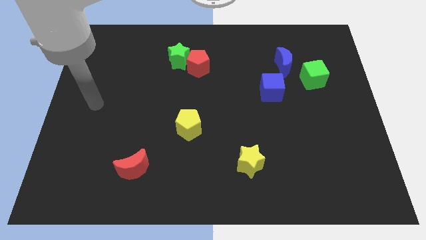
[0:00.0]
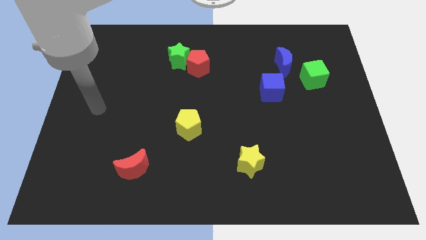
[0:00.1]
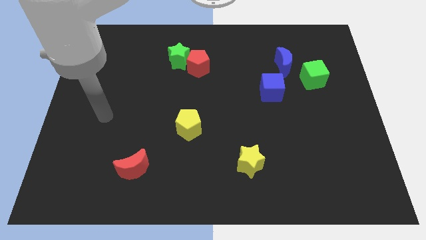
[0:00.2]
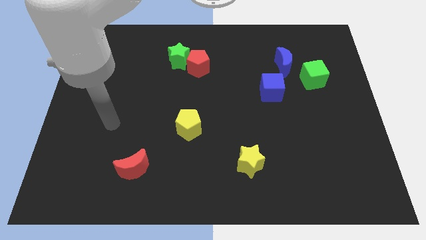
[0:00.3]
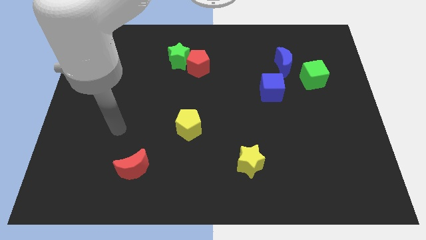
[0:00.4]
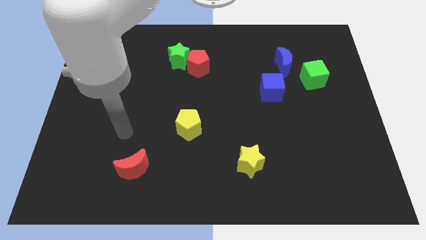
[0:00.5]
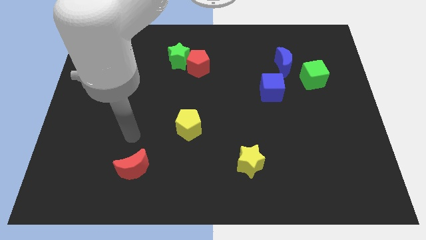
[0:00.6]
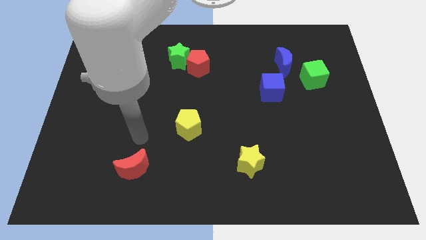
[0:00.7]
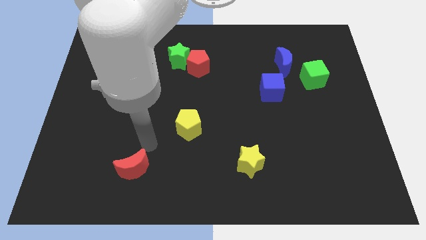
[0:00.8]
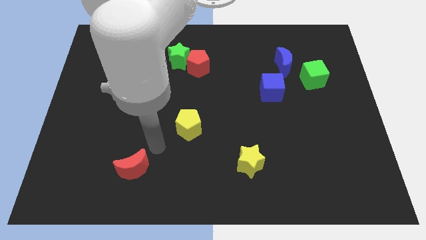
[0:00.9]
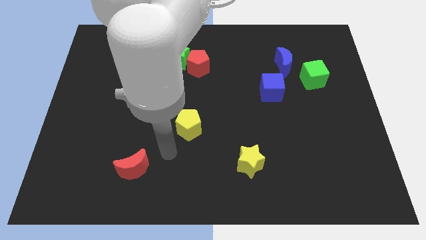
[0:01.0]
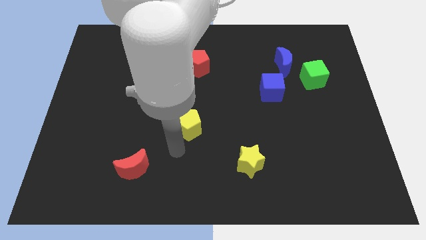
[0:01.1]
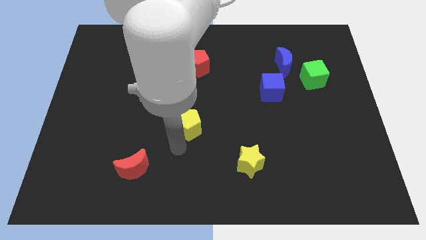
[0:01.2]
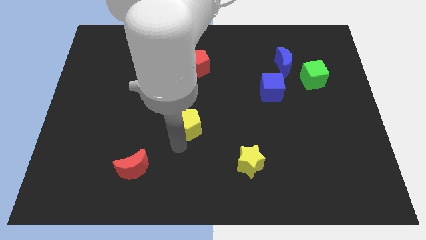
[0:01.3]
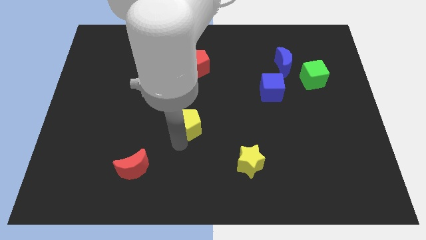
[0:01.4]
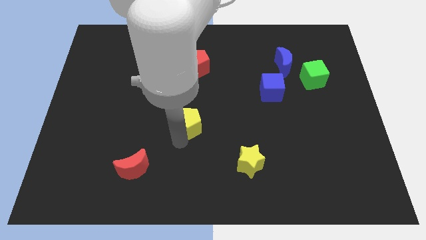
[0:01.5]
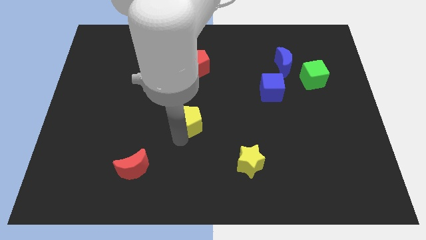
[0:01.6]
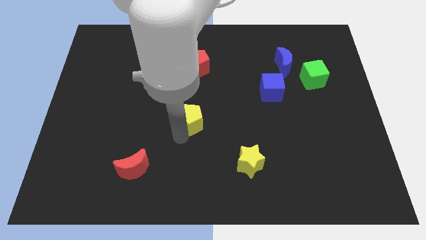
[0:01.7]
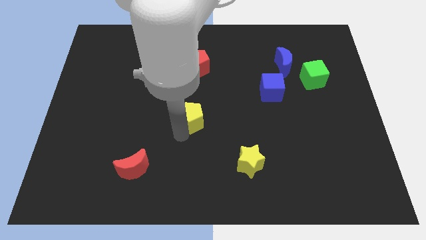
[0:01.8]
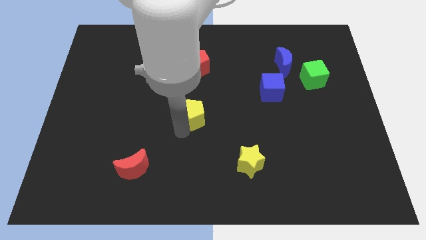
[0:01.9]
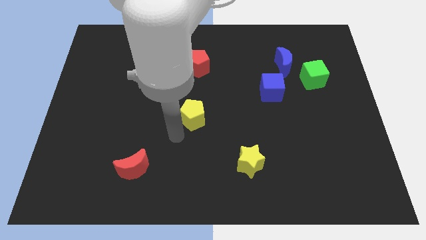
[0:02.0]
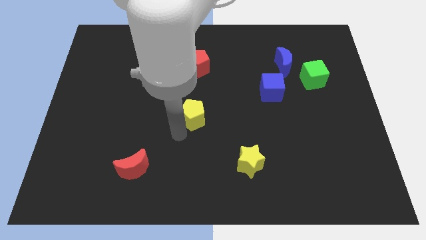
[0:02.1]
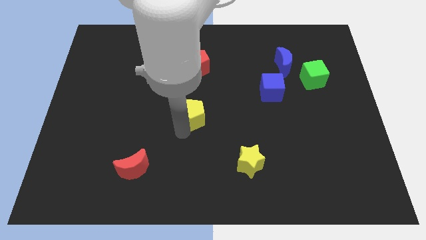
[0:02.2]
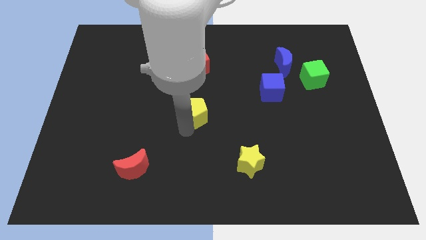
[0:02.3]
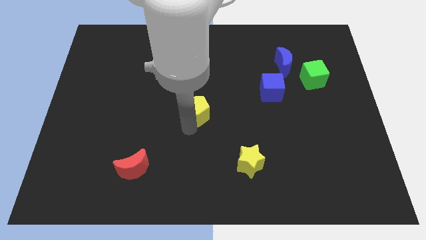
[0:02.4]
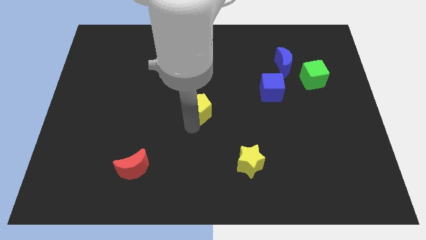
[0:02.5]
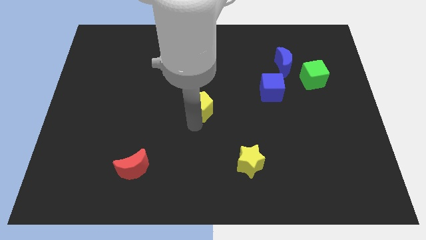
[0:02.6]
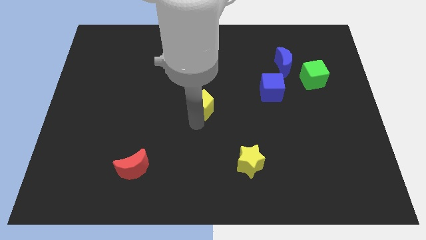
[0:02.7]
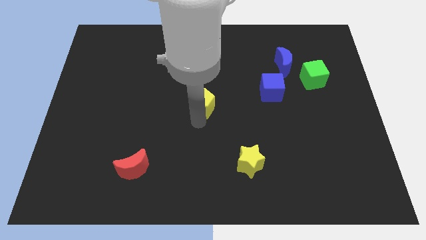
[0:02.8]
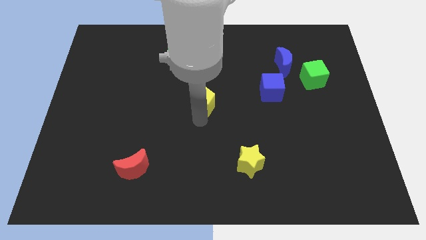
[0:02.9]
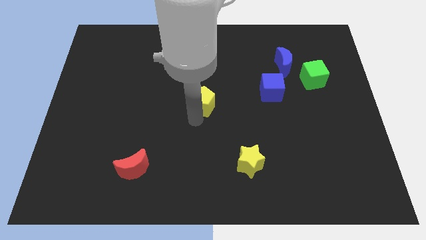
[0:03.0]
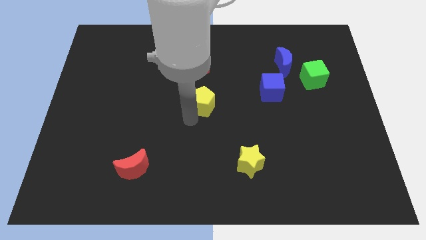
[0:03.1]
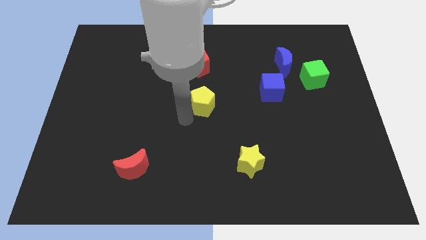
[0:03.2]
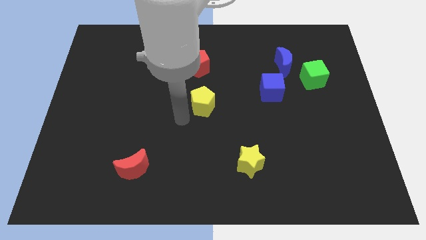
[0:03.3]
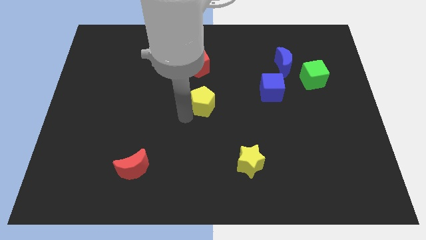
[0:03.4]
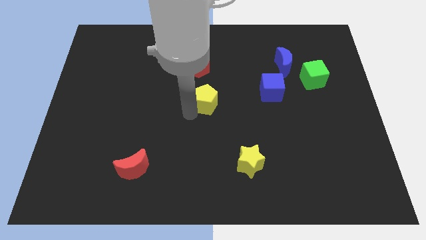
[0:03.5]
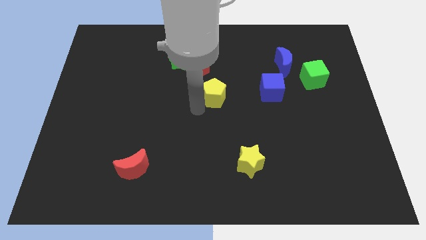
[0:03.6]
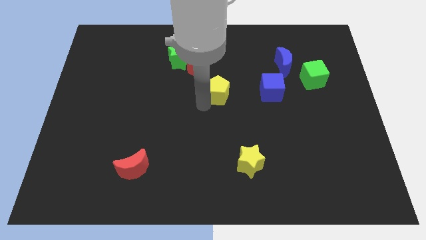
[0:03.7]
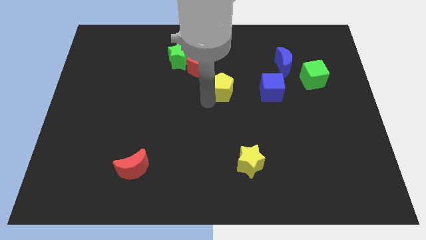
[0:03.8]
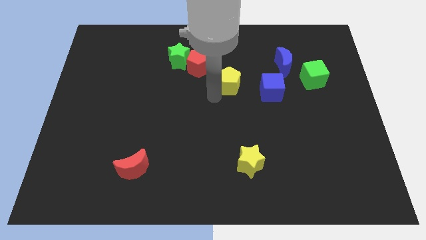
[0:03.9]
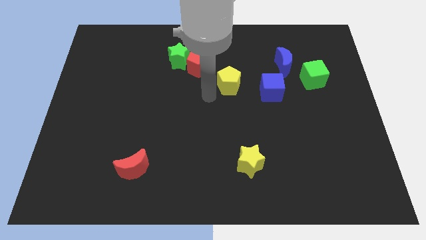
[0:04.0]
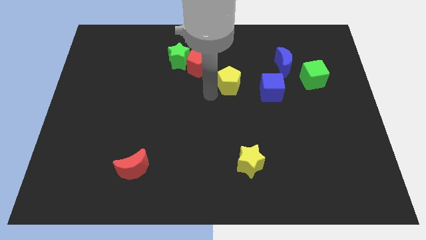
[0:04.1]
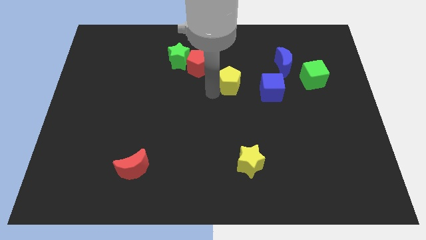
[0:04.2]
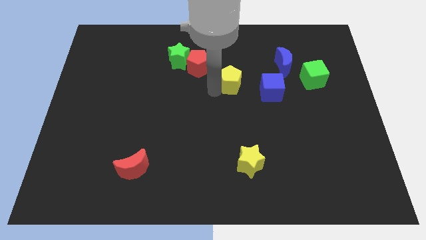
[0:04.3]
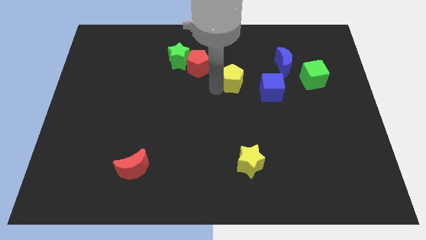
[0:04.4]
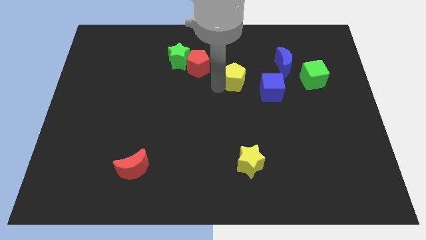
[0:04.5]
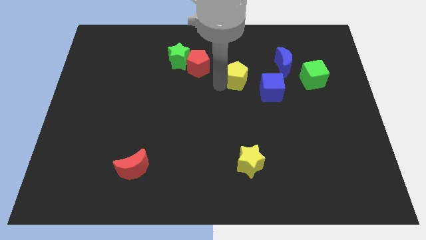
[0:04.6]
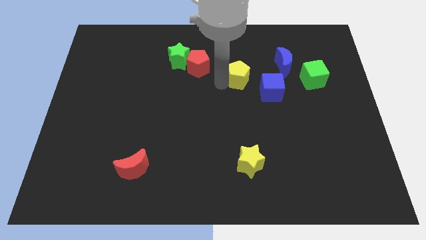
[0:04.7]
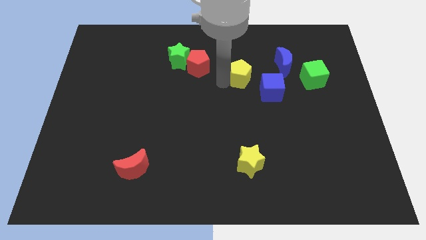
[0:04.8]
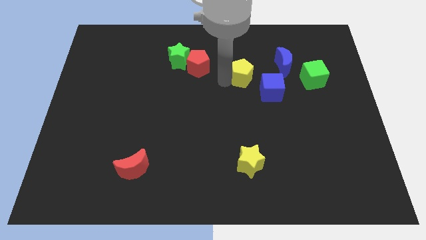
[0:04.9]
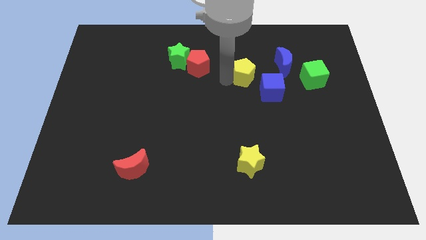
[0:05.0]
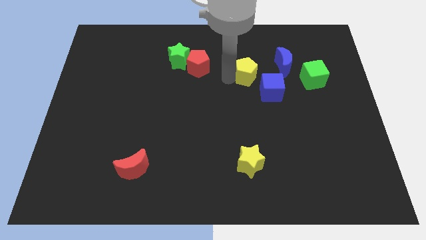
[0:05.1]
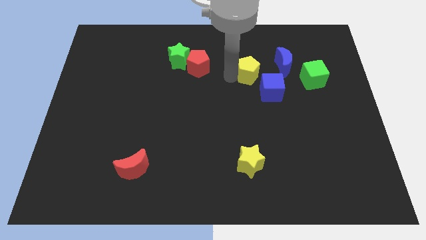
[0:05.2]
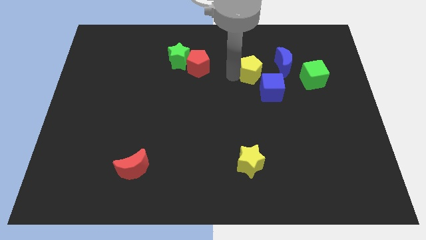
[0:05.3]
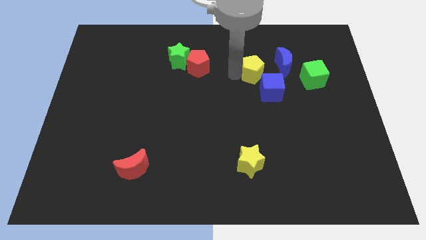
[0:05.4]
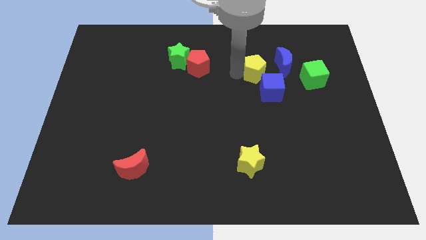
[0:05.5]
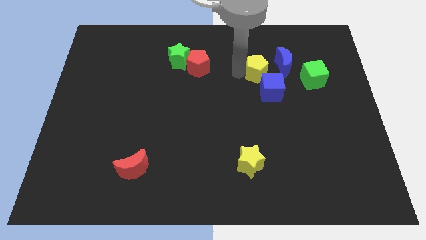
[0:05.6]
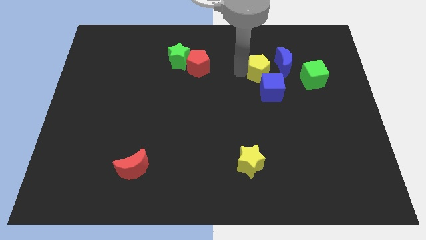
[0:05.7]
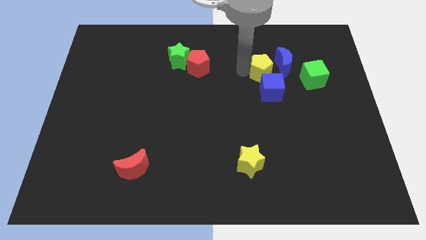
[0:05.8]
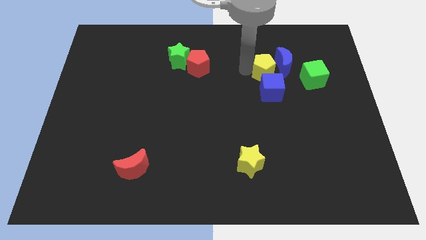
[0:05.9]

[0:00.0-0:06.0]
move the yellow pentagon towards the blue moon

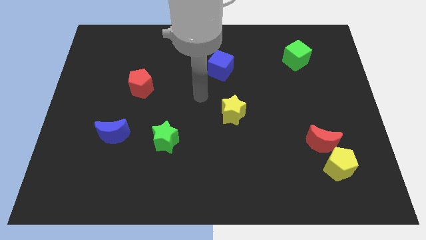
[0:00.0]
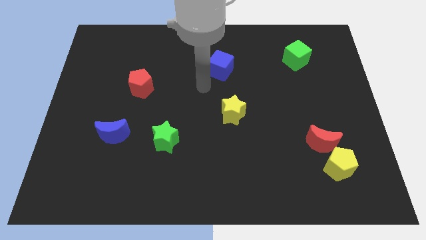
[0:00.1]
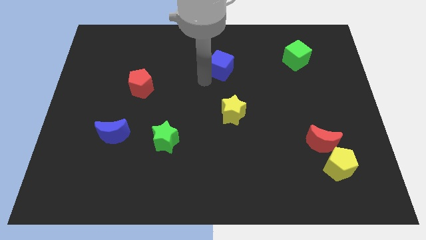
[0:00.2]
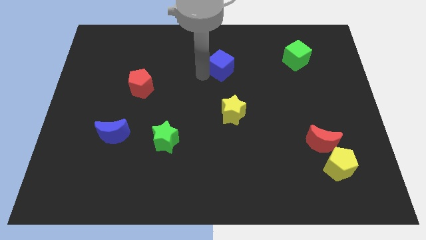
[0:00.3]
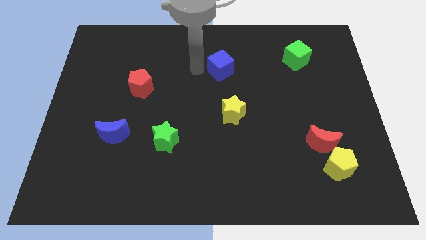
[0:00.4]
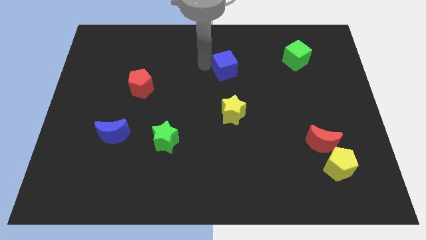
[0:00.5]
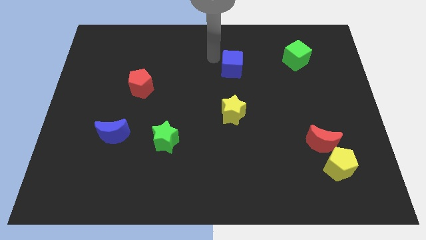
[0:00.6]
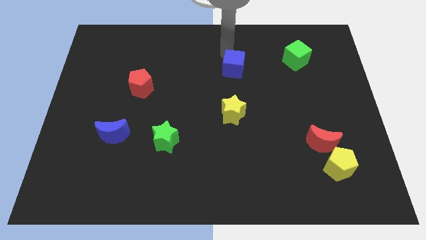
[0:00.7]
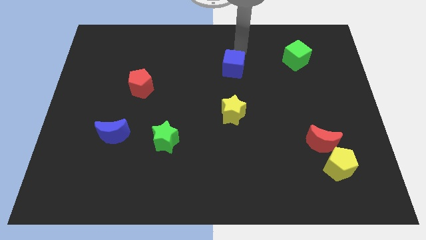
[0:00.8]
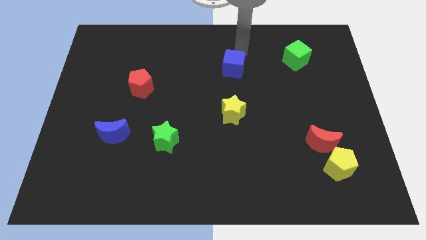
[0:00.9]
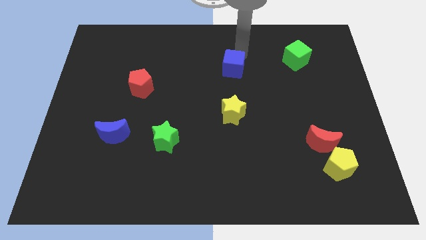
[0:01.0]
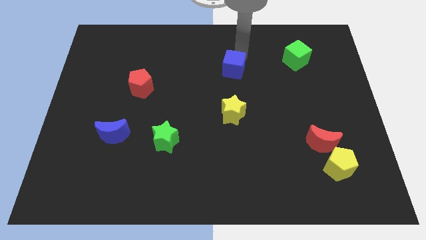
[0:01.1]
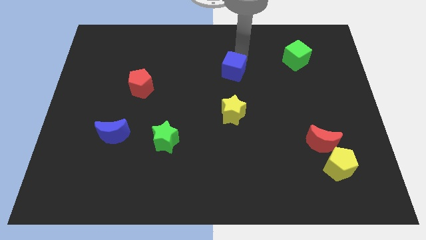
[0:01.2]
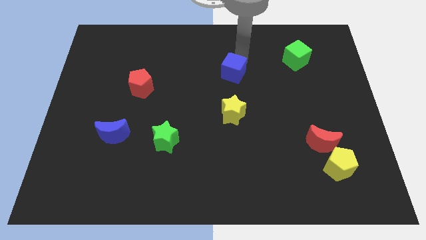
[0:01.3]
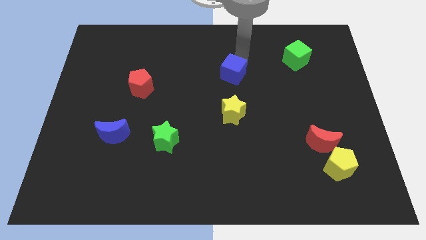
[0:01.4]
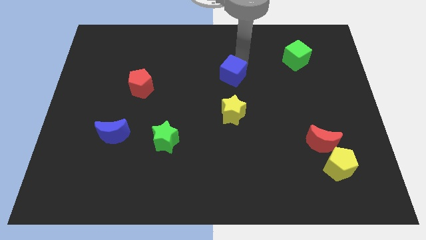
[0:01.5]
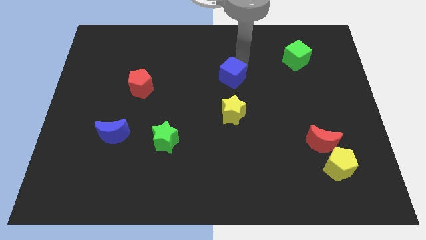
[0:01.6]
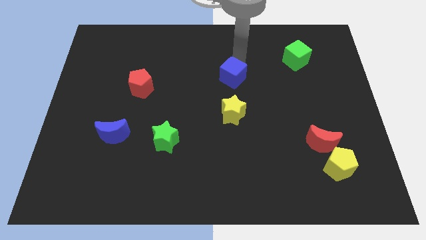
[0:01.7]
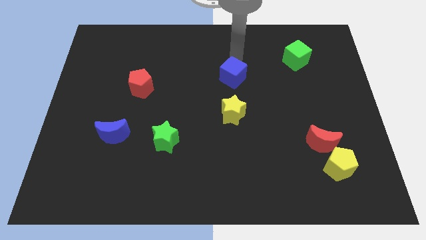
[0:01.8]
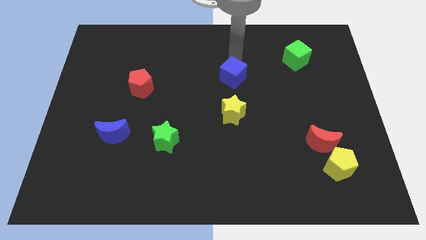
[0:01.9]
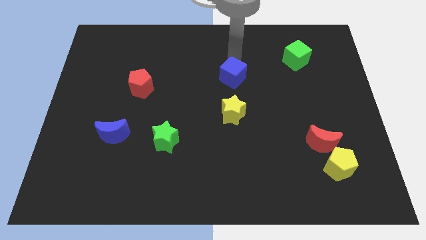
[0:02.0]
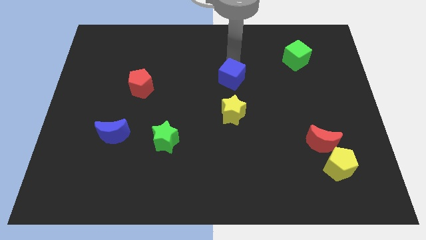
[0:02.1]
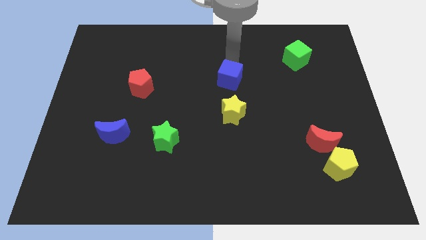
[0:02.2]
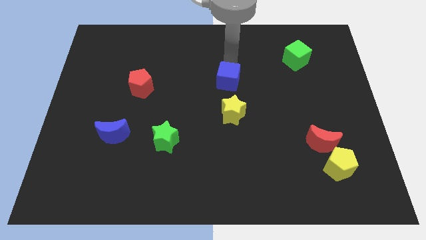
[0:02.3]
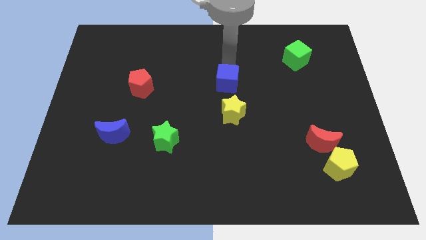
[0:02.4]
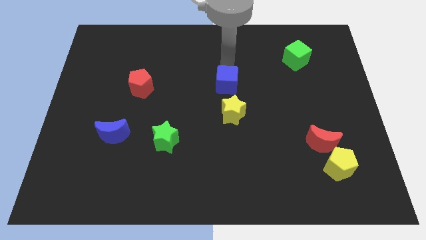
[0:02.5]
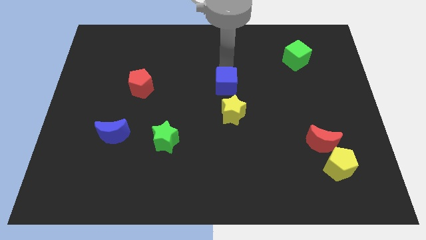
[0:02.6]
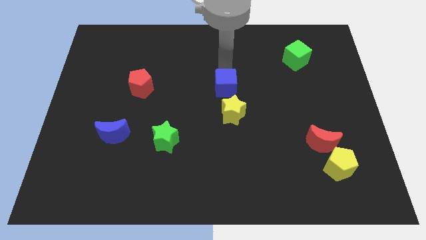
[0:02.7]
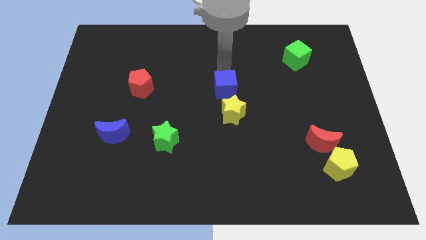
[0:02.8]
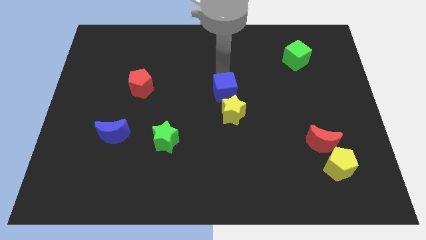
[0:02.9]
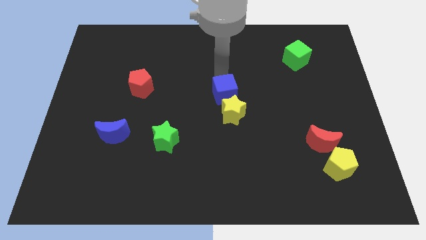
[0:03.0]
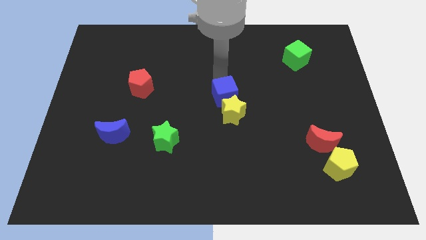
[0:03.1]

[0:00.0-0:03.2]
slide the blue cube towards the yellow star
